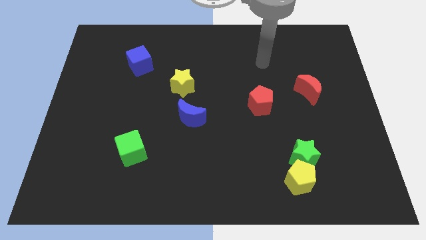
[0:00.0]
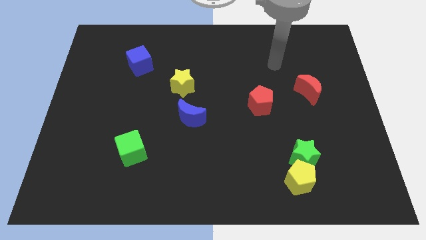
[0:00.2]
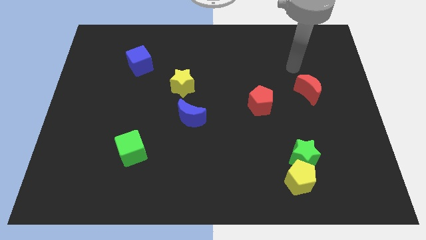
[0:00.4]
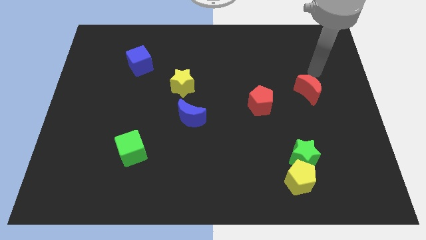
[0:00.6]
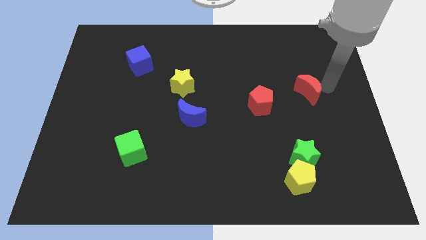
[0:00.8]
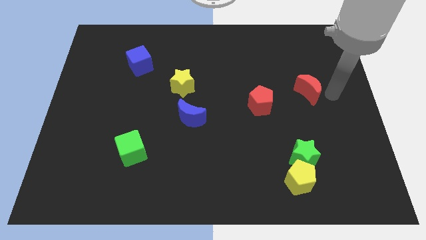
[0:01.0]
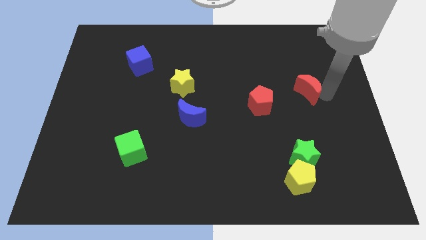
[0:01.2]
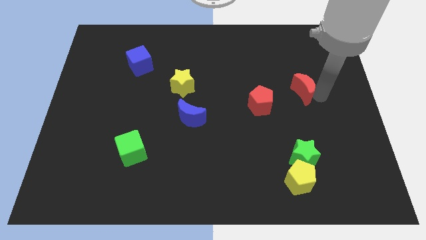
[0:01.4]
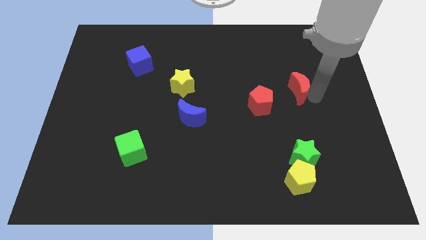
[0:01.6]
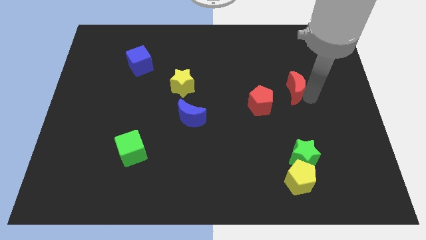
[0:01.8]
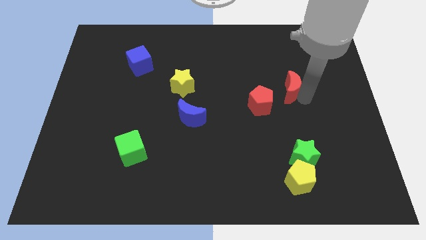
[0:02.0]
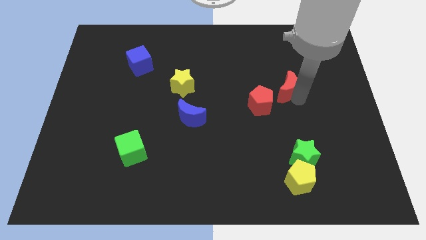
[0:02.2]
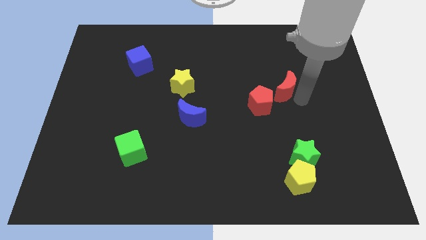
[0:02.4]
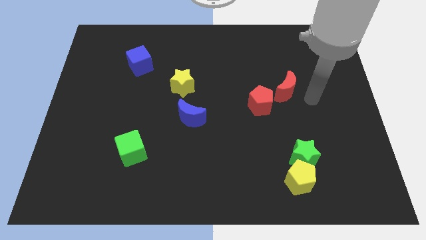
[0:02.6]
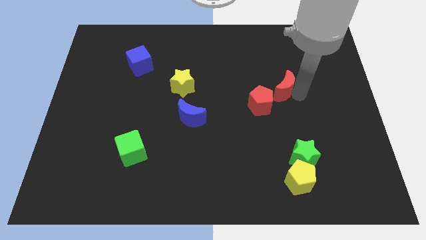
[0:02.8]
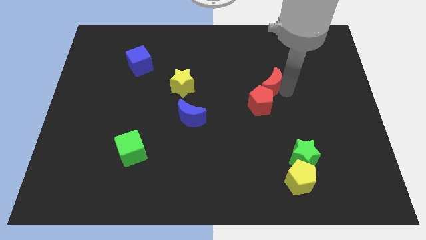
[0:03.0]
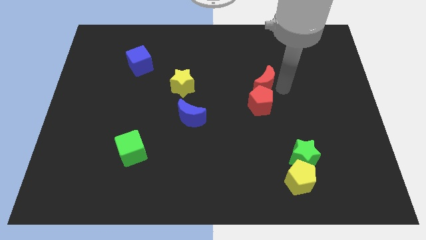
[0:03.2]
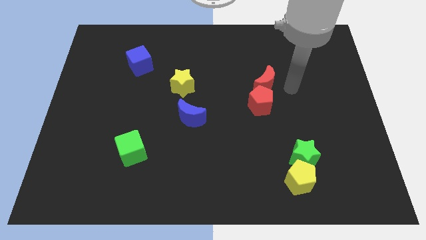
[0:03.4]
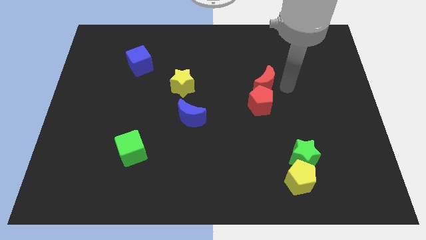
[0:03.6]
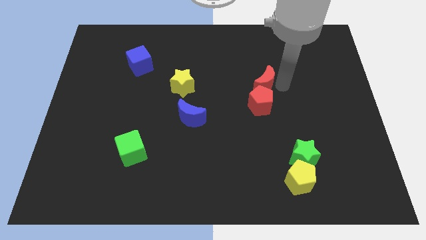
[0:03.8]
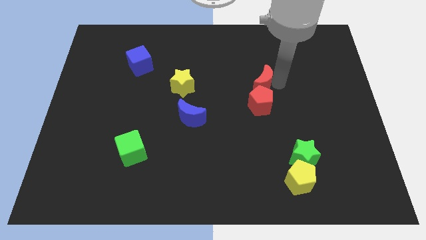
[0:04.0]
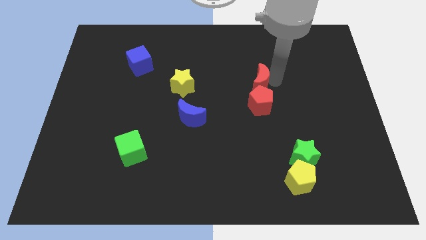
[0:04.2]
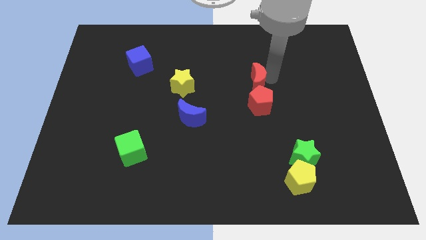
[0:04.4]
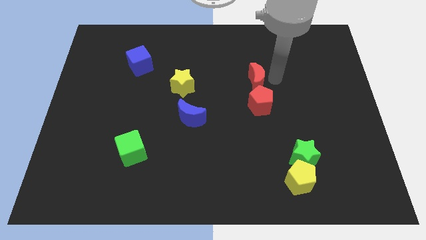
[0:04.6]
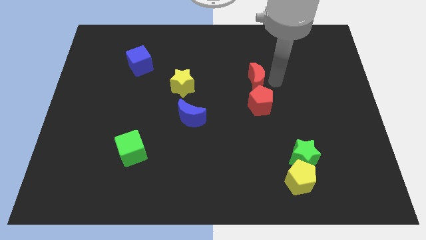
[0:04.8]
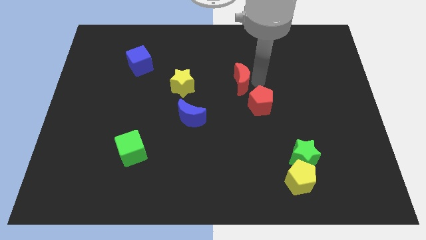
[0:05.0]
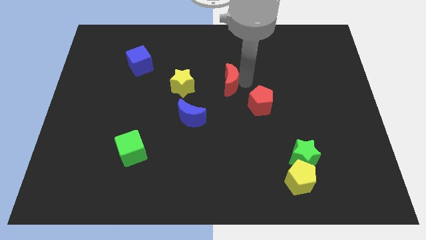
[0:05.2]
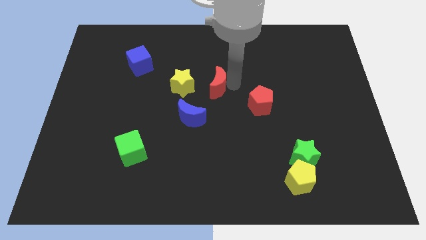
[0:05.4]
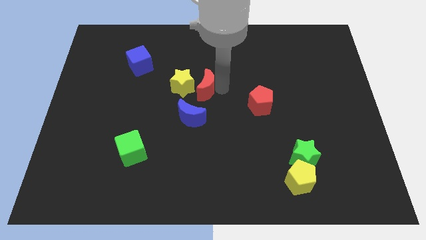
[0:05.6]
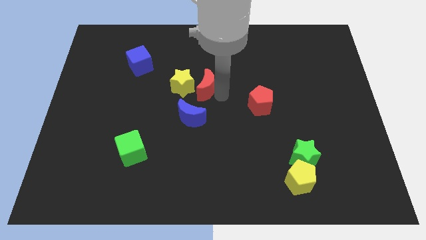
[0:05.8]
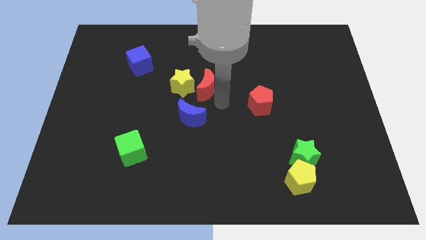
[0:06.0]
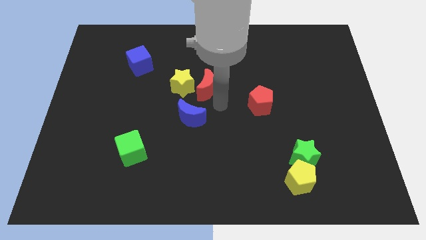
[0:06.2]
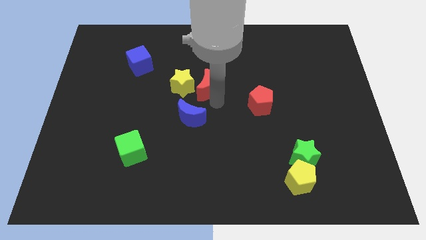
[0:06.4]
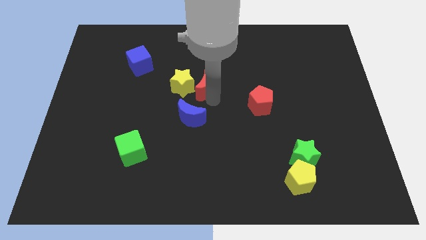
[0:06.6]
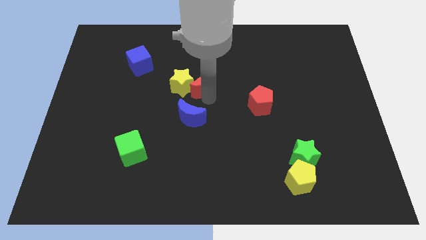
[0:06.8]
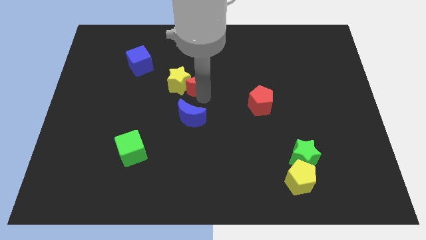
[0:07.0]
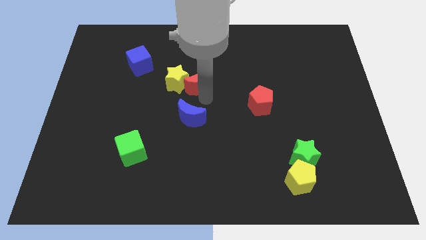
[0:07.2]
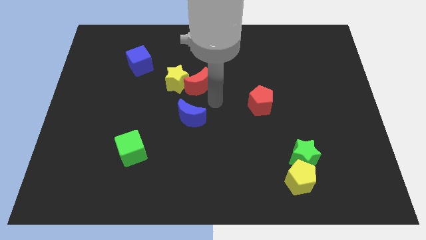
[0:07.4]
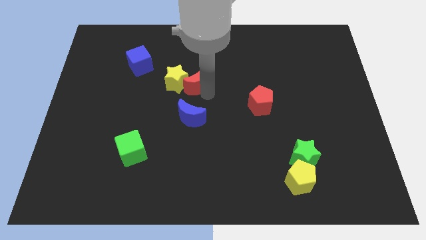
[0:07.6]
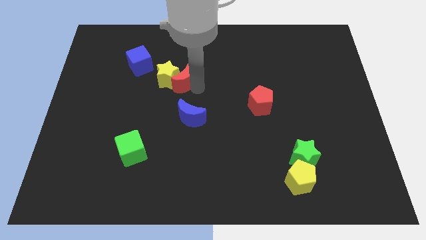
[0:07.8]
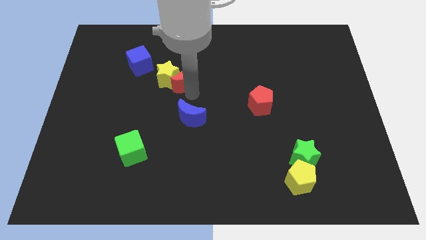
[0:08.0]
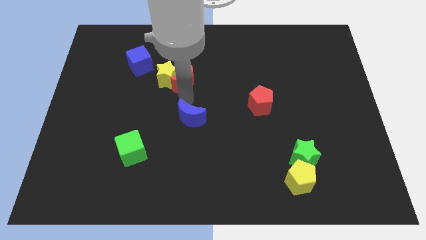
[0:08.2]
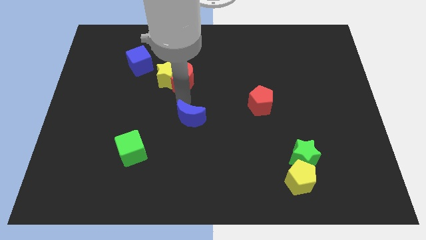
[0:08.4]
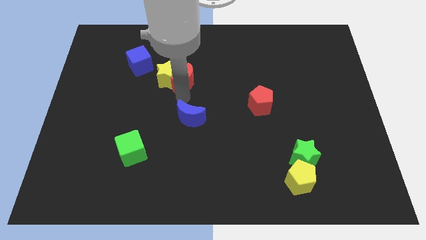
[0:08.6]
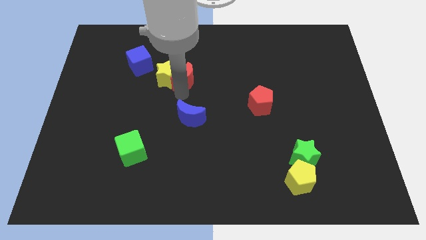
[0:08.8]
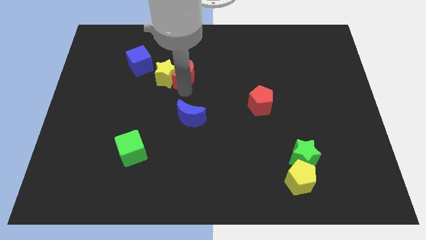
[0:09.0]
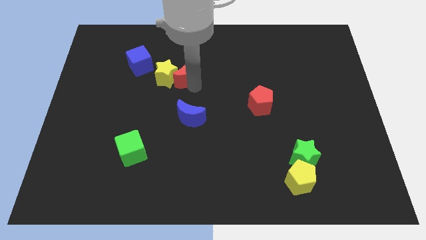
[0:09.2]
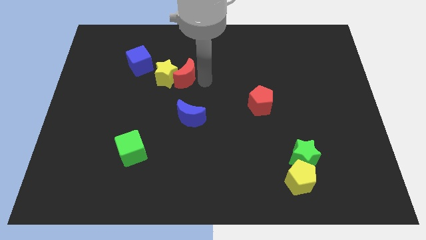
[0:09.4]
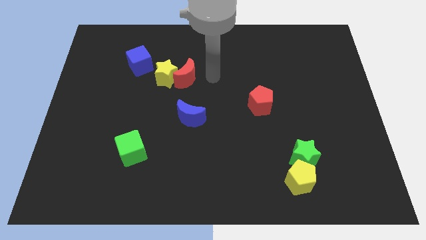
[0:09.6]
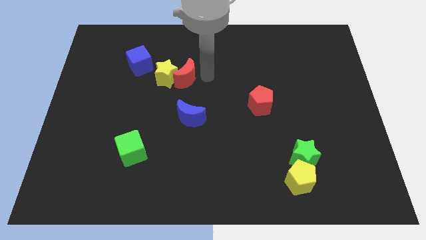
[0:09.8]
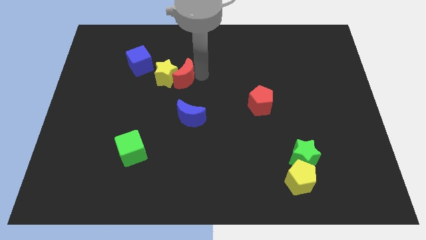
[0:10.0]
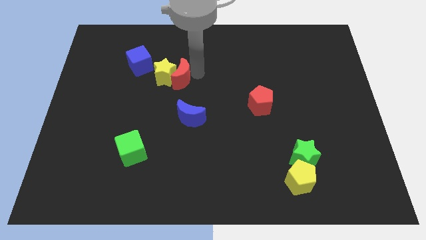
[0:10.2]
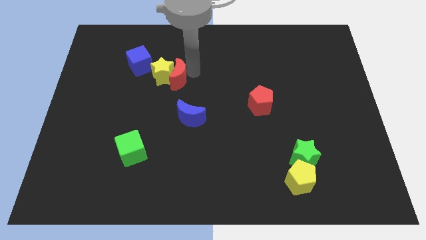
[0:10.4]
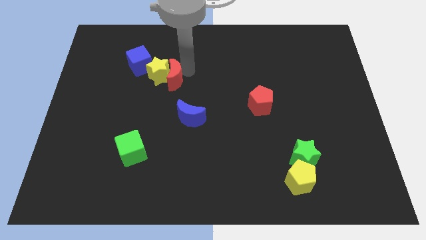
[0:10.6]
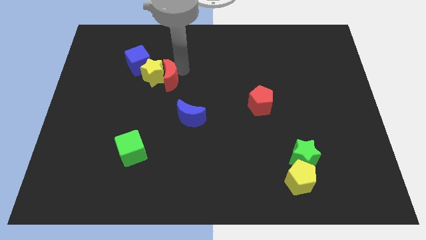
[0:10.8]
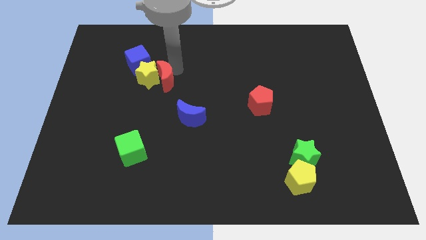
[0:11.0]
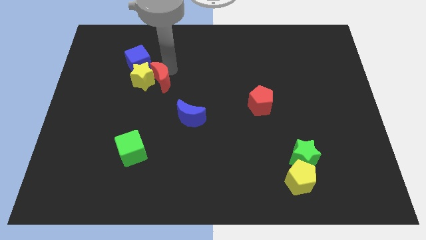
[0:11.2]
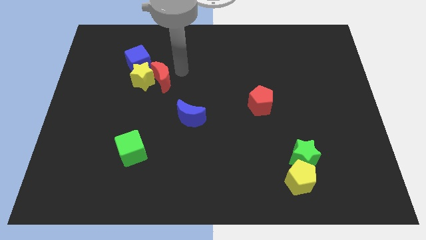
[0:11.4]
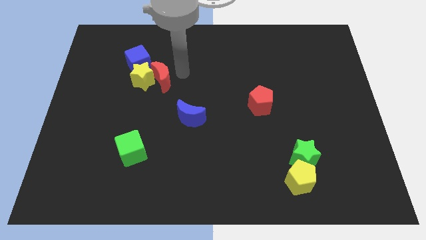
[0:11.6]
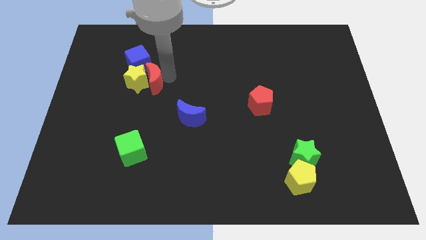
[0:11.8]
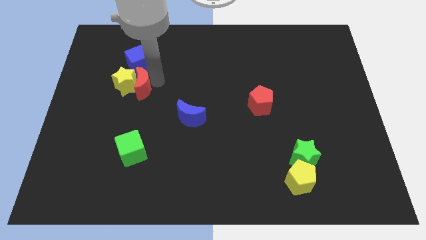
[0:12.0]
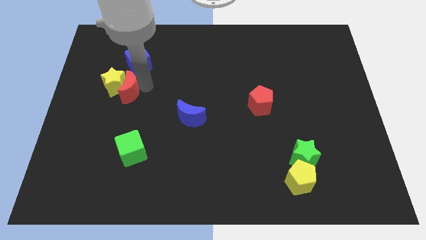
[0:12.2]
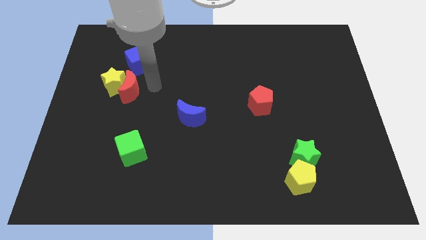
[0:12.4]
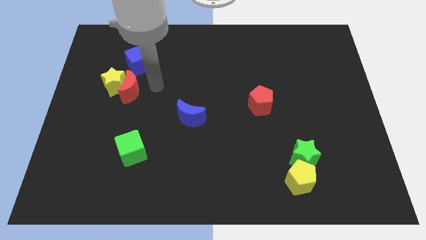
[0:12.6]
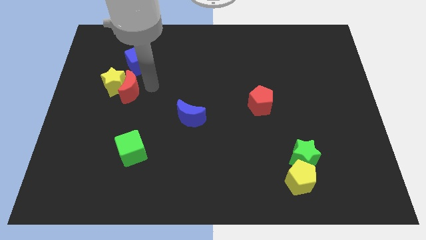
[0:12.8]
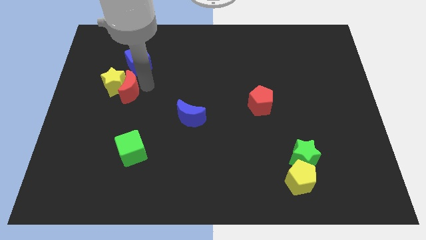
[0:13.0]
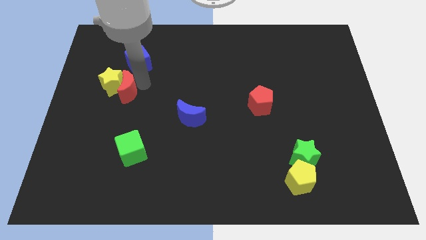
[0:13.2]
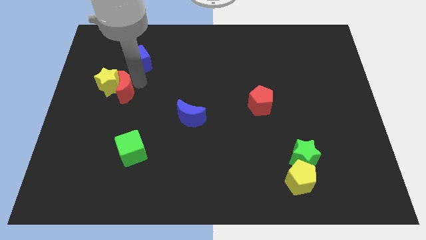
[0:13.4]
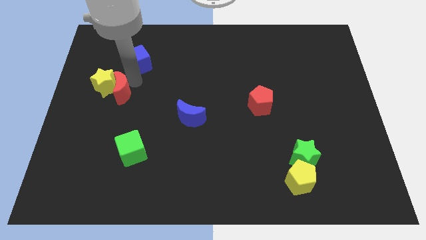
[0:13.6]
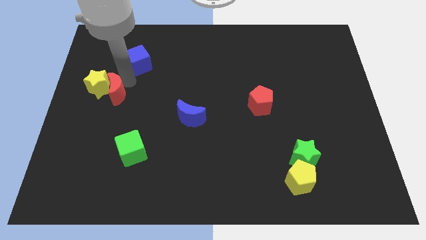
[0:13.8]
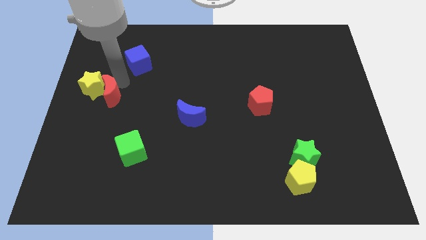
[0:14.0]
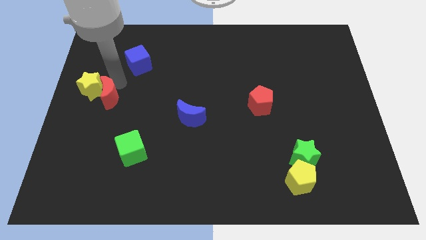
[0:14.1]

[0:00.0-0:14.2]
move the red moon to the left side of the board
